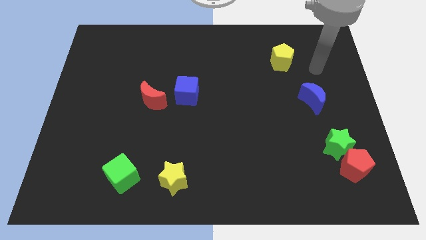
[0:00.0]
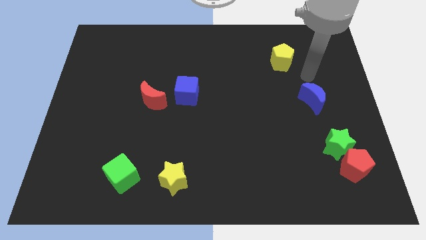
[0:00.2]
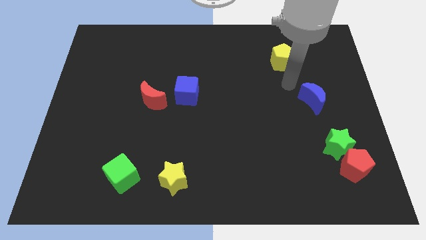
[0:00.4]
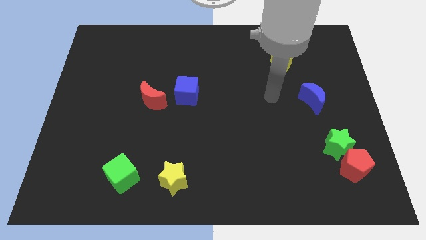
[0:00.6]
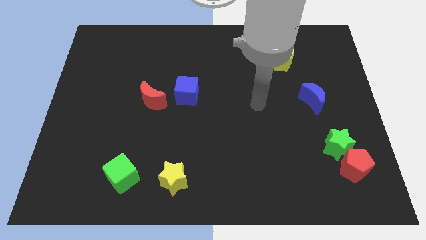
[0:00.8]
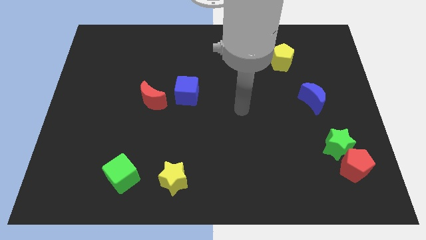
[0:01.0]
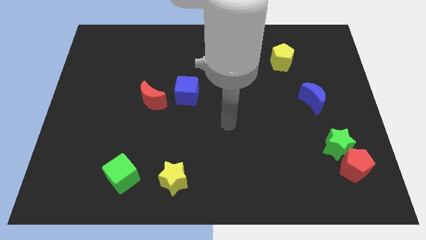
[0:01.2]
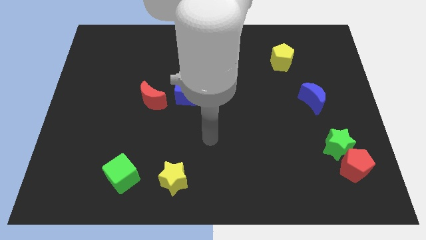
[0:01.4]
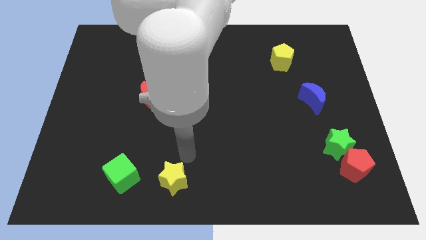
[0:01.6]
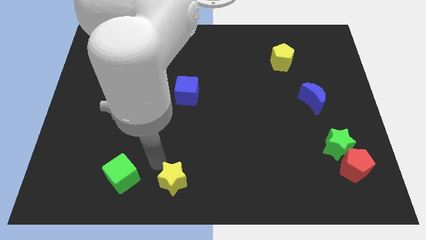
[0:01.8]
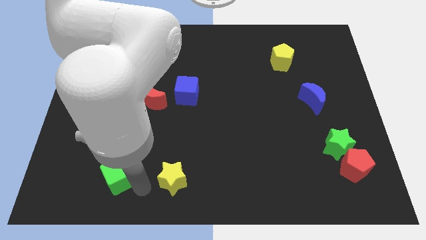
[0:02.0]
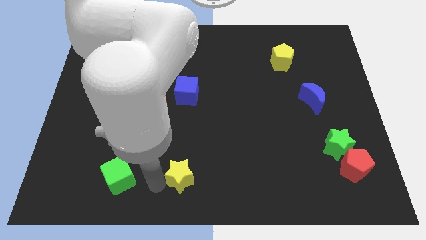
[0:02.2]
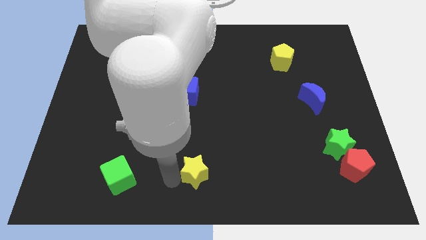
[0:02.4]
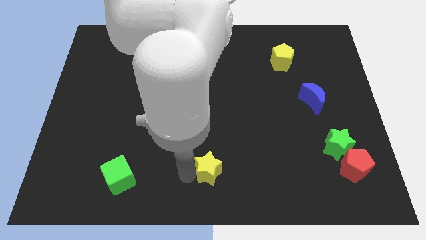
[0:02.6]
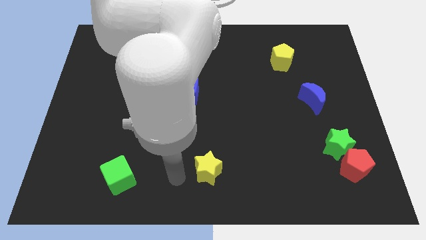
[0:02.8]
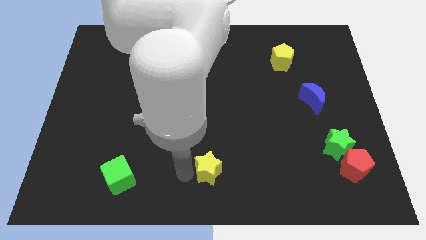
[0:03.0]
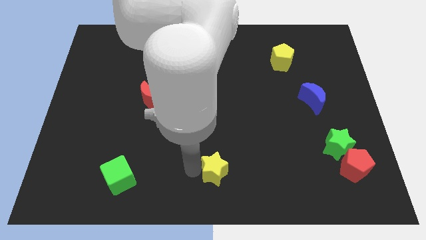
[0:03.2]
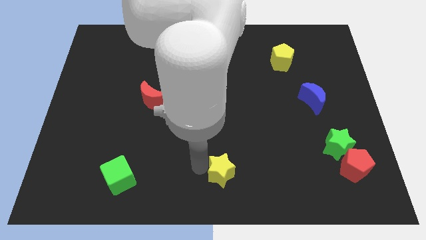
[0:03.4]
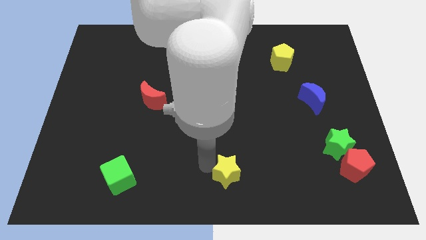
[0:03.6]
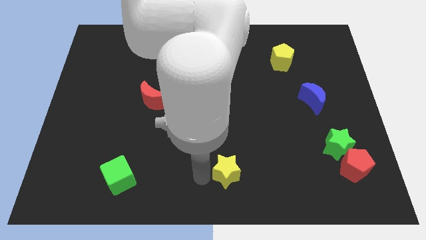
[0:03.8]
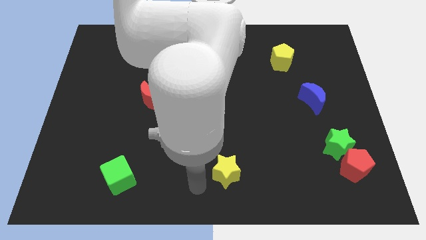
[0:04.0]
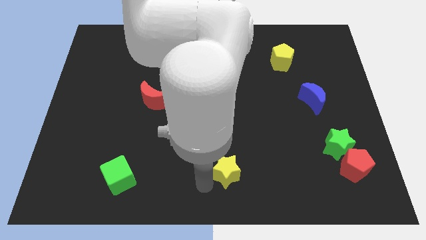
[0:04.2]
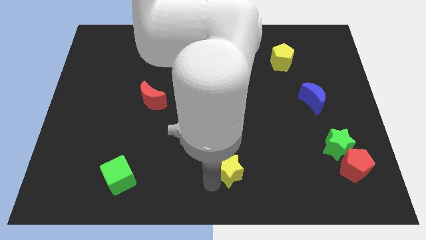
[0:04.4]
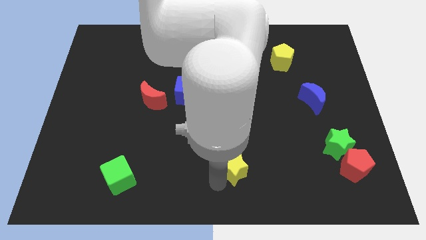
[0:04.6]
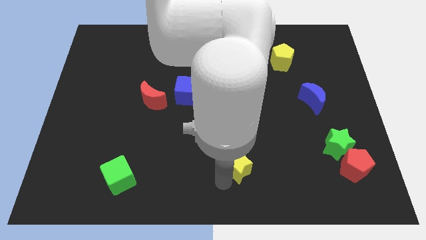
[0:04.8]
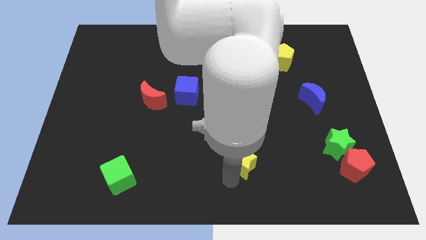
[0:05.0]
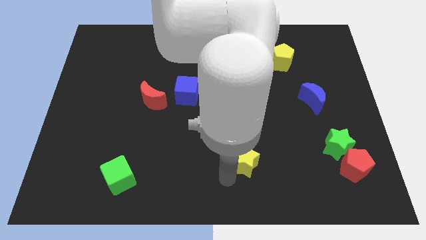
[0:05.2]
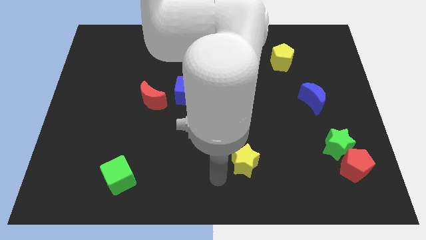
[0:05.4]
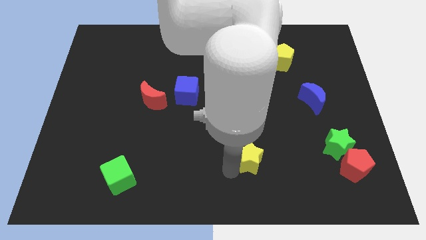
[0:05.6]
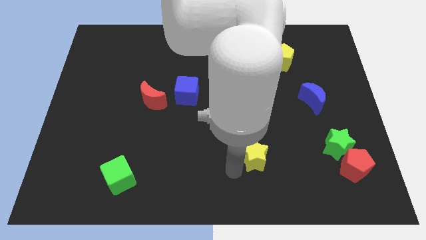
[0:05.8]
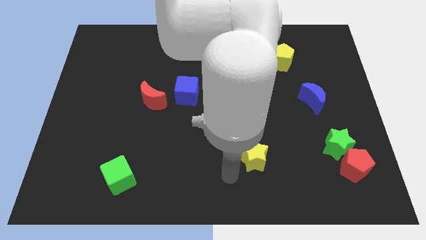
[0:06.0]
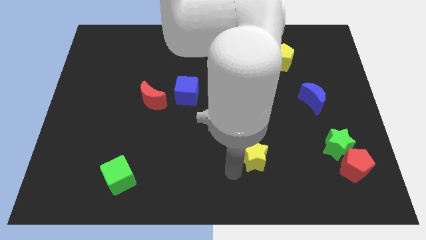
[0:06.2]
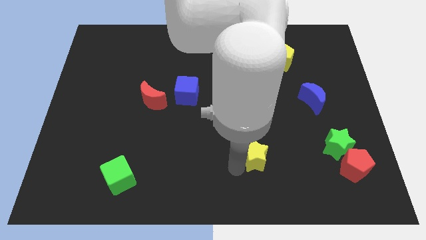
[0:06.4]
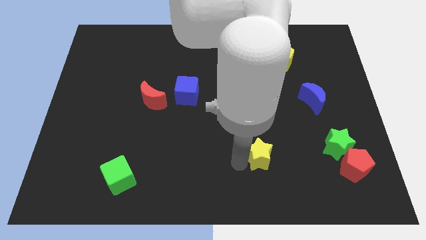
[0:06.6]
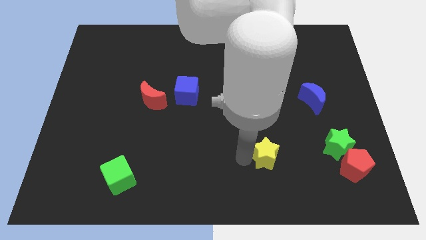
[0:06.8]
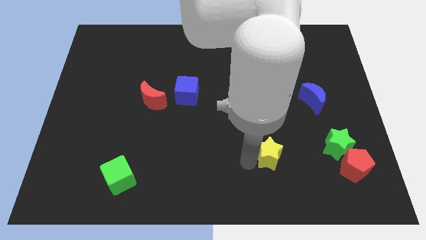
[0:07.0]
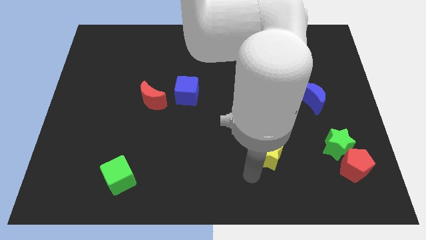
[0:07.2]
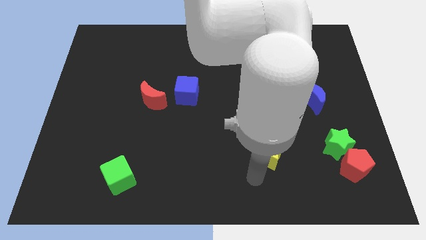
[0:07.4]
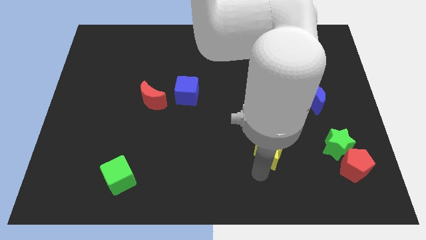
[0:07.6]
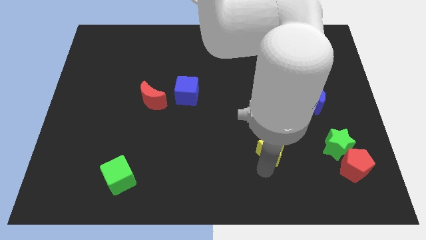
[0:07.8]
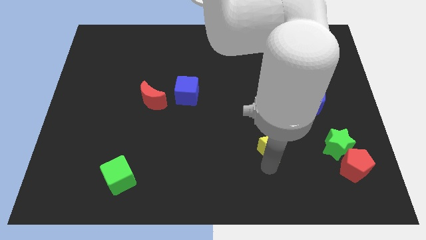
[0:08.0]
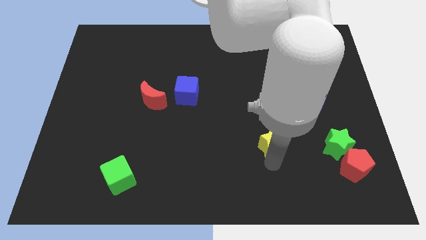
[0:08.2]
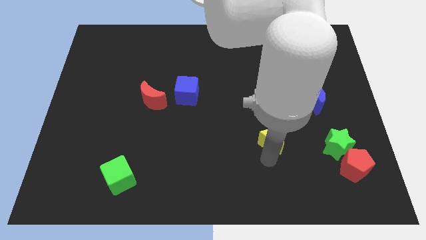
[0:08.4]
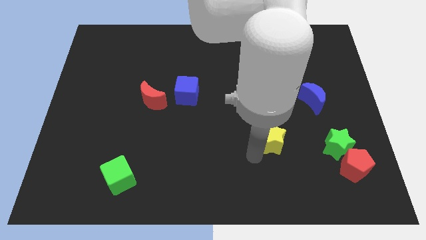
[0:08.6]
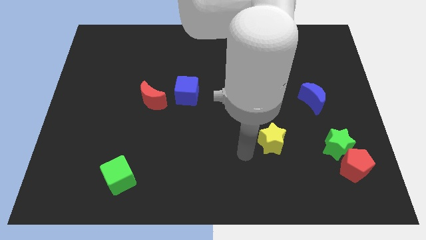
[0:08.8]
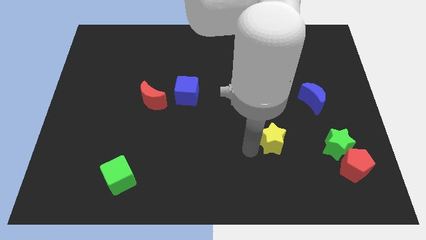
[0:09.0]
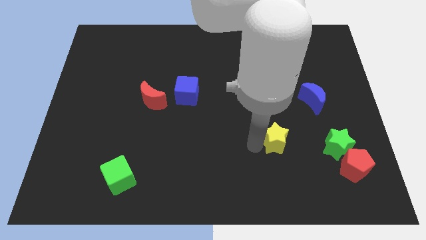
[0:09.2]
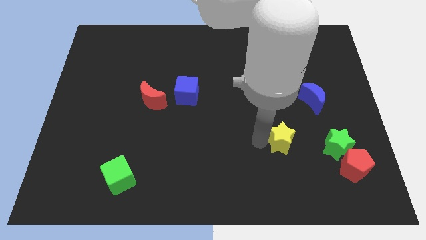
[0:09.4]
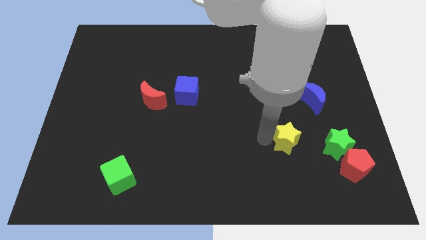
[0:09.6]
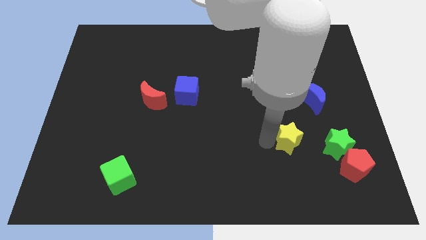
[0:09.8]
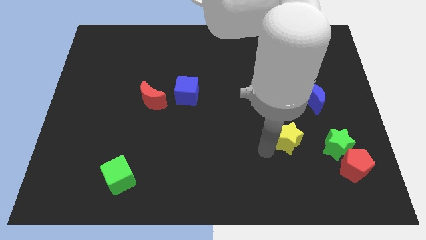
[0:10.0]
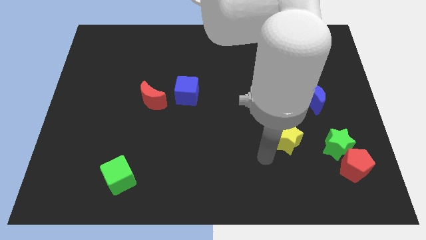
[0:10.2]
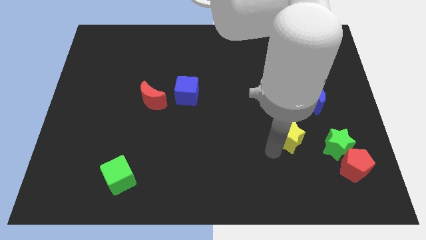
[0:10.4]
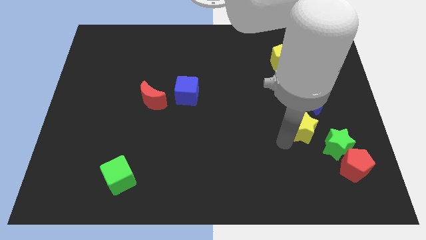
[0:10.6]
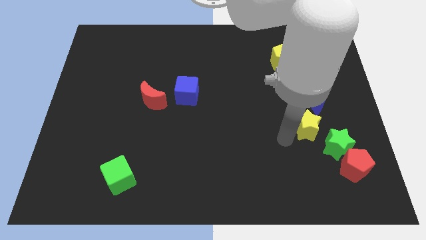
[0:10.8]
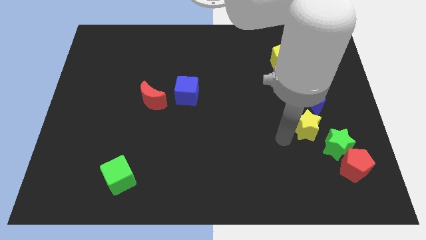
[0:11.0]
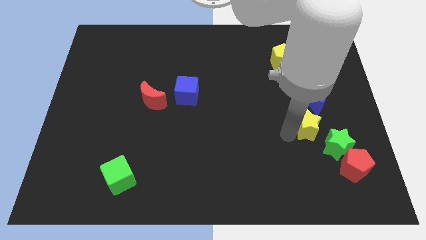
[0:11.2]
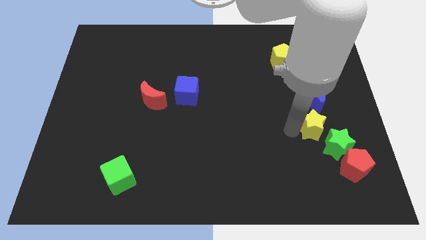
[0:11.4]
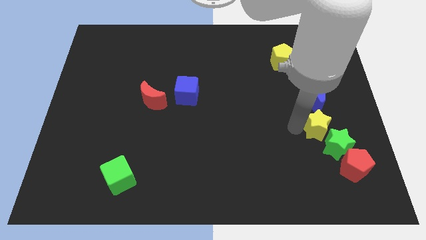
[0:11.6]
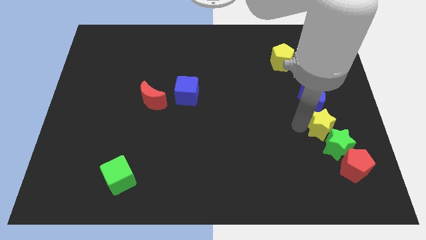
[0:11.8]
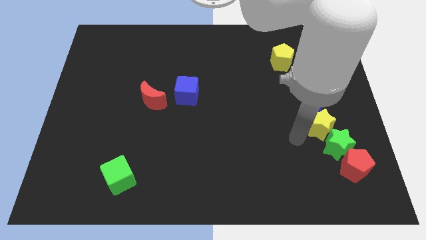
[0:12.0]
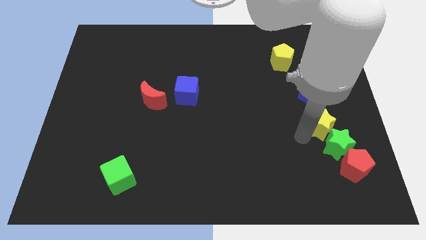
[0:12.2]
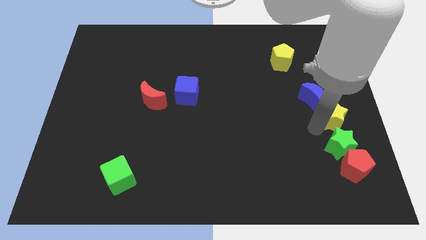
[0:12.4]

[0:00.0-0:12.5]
move the yellow star to the right side of the board
